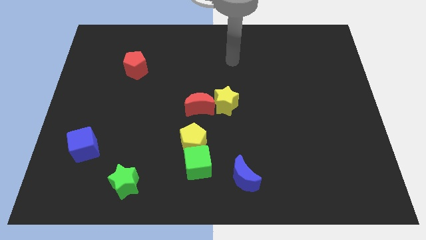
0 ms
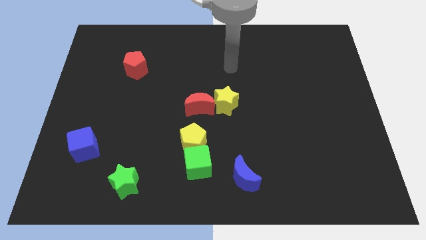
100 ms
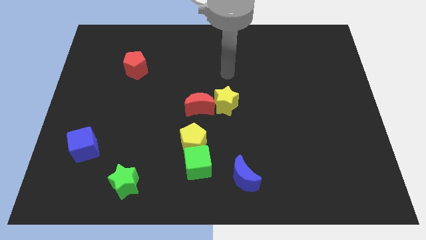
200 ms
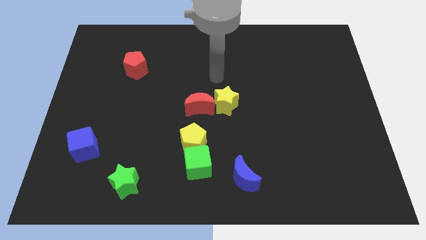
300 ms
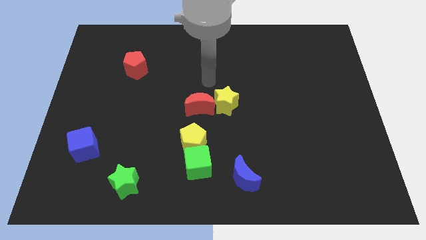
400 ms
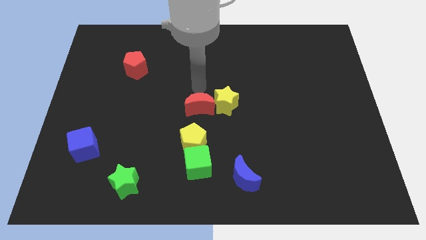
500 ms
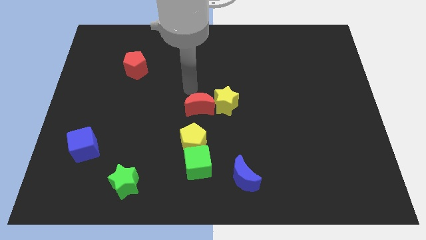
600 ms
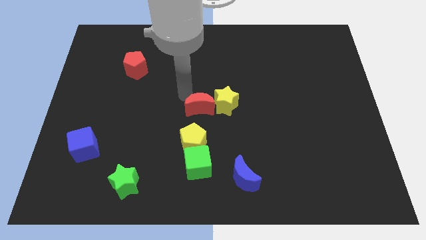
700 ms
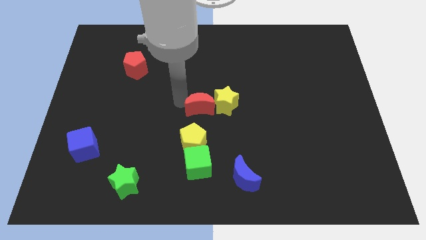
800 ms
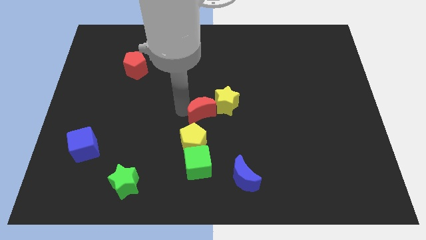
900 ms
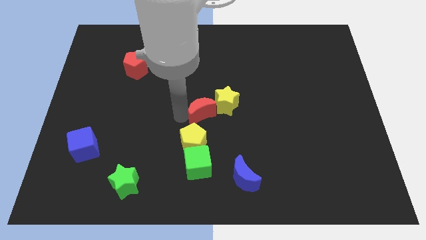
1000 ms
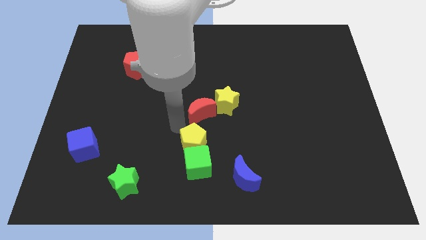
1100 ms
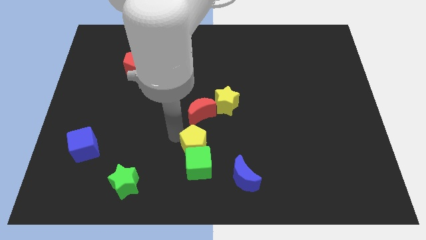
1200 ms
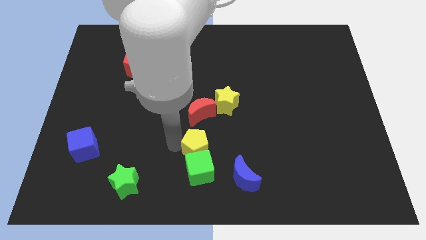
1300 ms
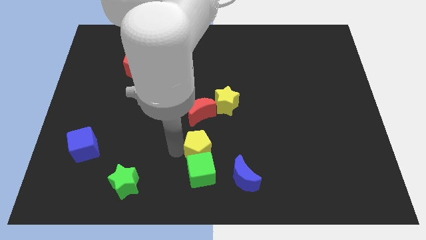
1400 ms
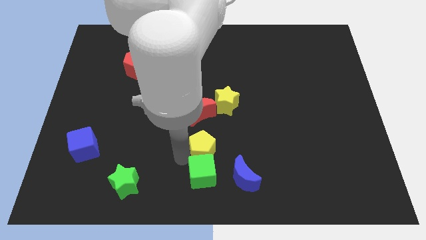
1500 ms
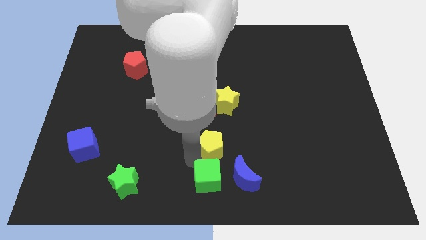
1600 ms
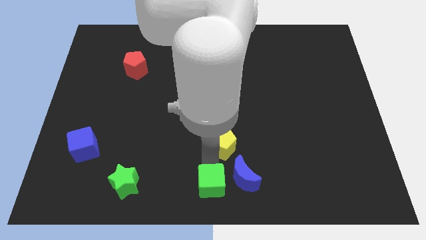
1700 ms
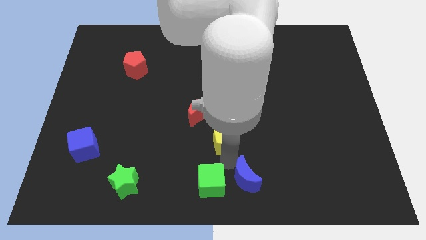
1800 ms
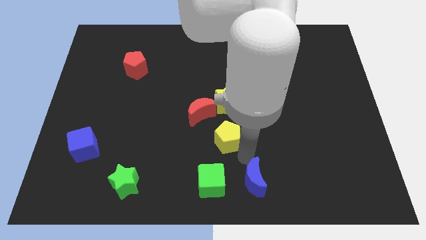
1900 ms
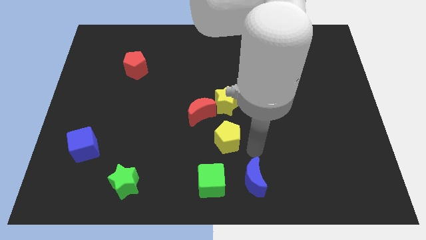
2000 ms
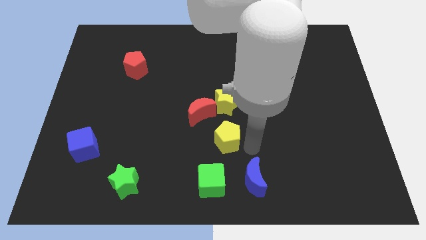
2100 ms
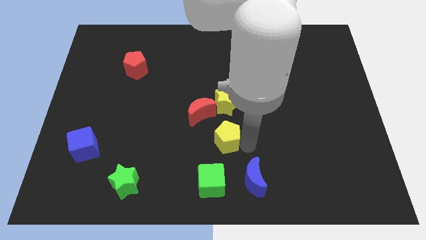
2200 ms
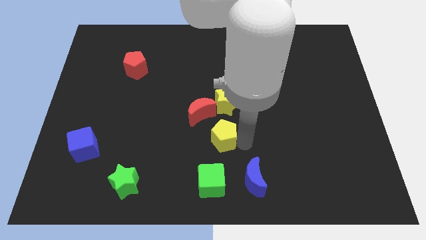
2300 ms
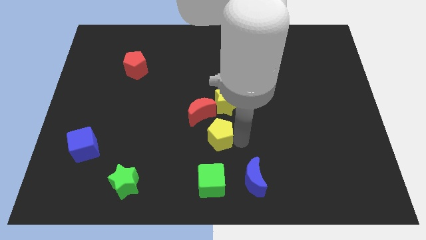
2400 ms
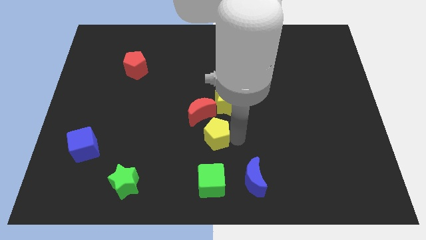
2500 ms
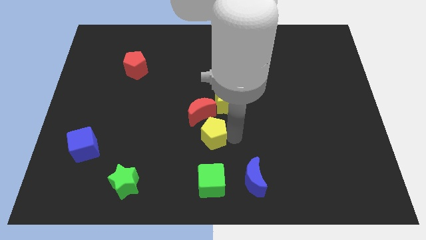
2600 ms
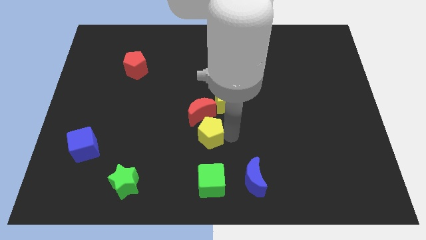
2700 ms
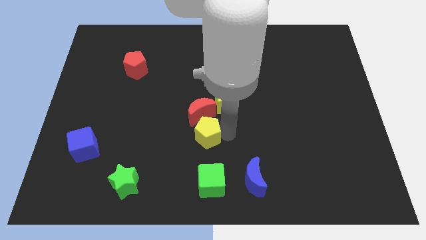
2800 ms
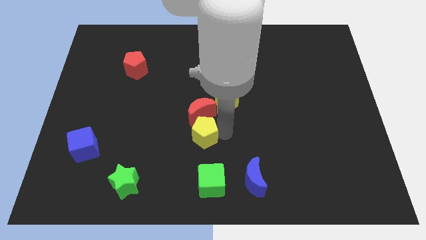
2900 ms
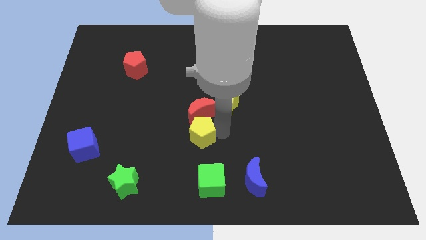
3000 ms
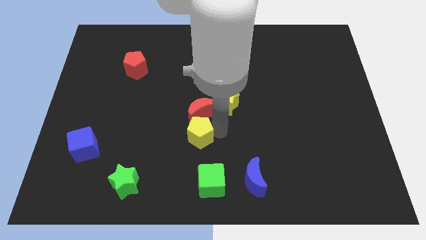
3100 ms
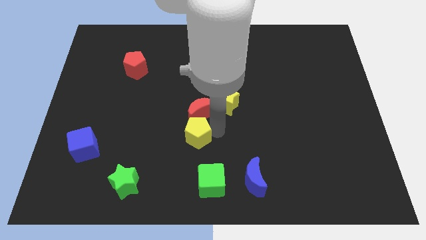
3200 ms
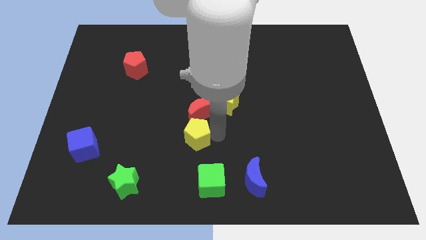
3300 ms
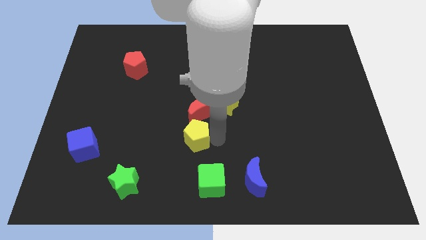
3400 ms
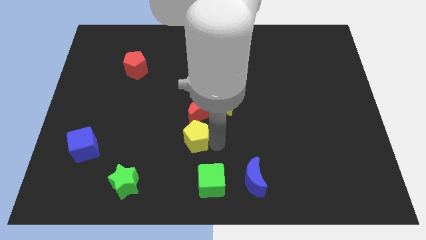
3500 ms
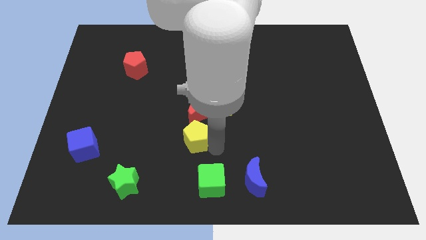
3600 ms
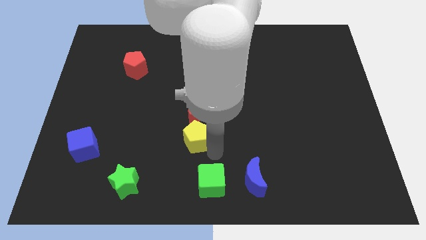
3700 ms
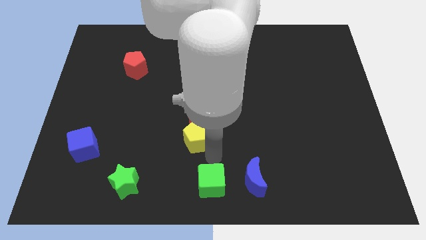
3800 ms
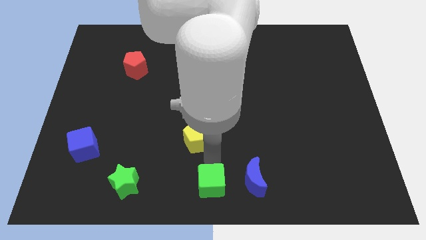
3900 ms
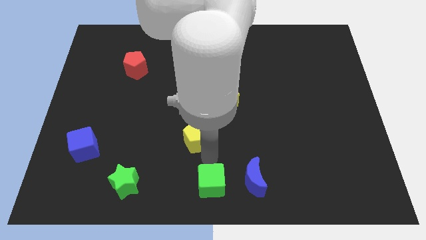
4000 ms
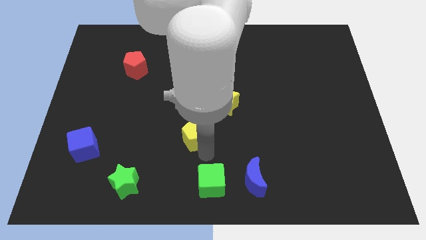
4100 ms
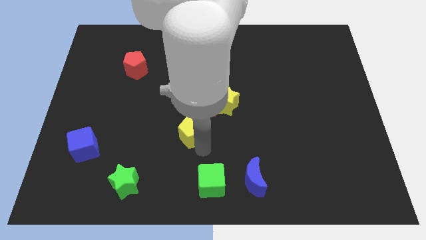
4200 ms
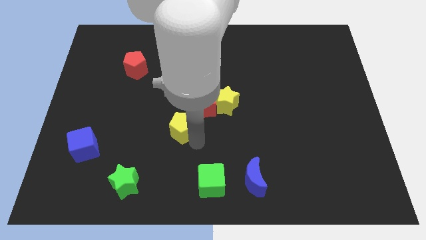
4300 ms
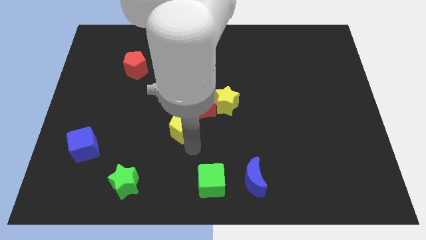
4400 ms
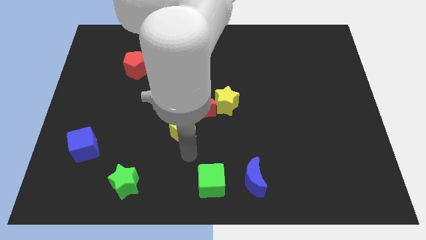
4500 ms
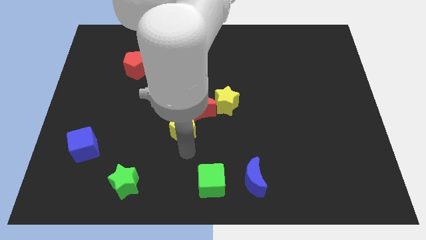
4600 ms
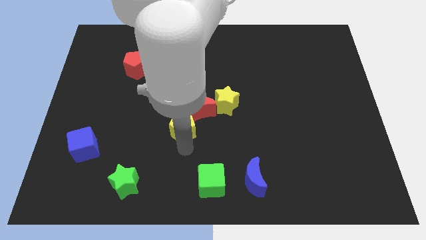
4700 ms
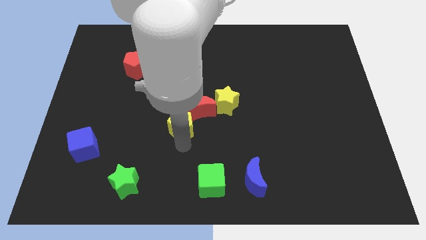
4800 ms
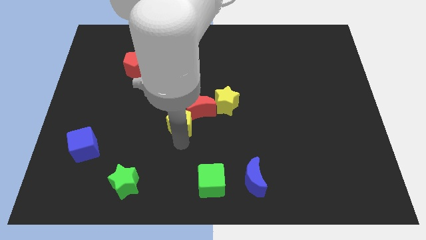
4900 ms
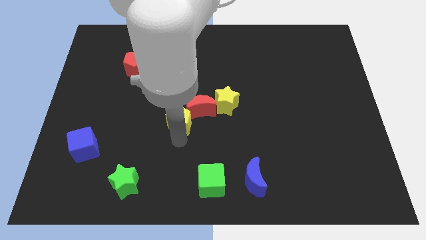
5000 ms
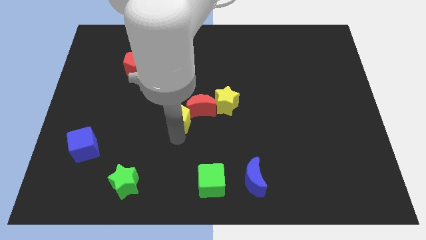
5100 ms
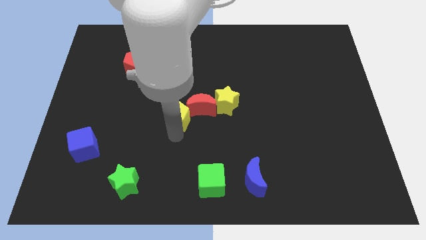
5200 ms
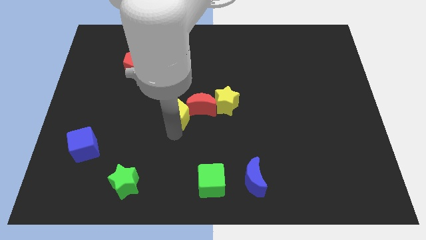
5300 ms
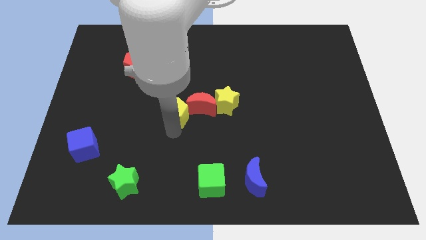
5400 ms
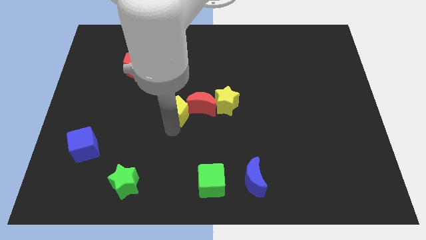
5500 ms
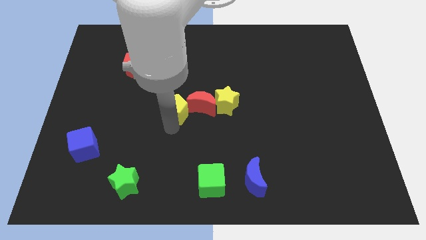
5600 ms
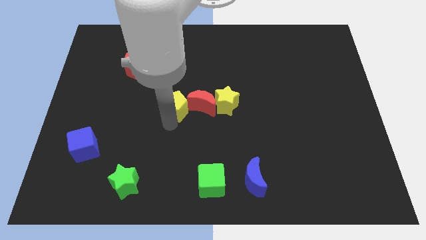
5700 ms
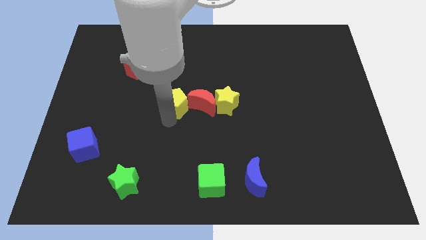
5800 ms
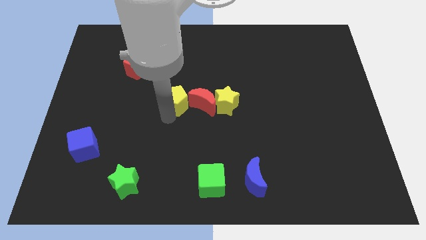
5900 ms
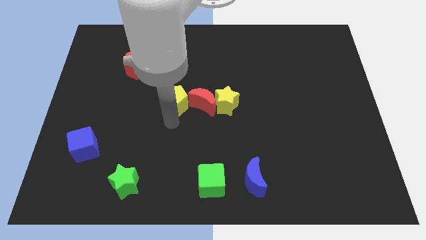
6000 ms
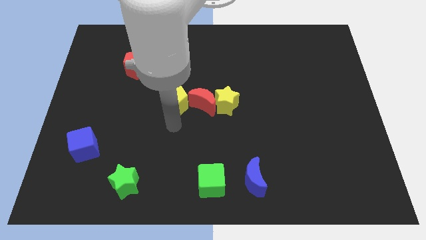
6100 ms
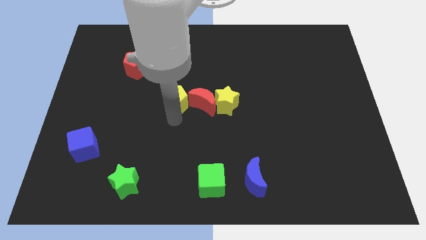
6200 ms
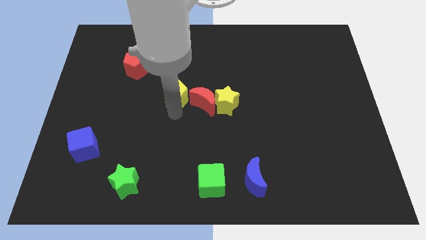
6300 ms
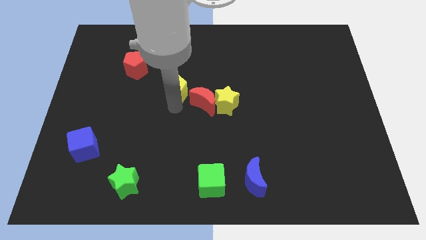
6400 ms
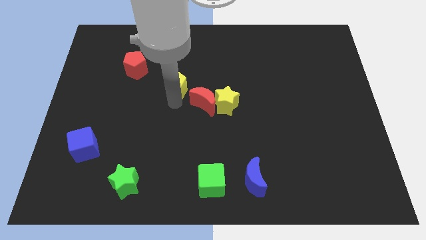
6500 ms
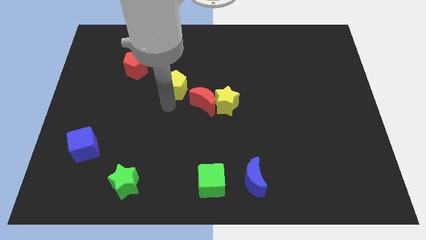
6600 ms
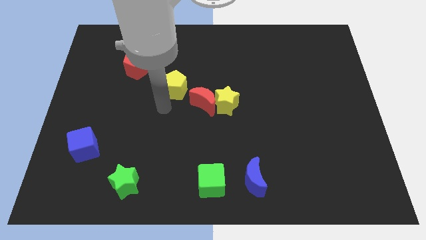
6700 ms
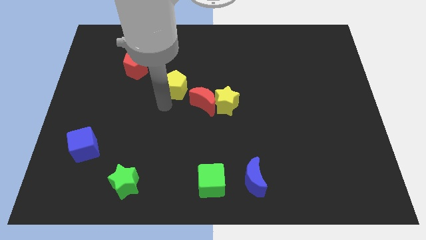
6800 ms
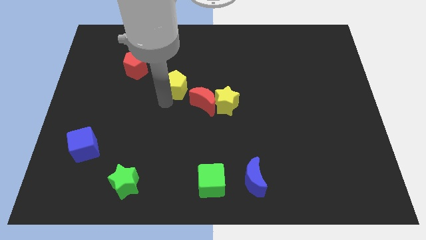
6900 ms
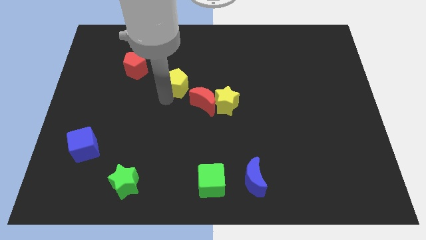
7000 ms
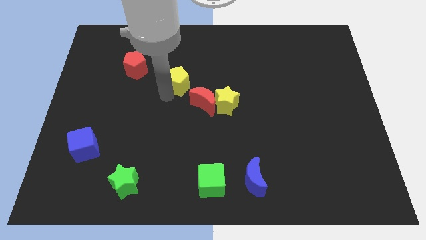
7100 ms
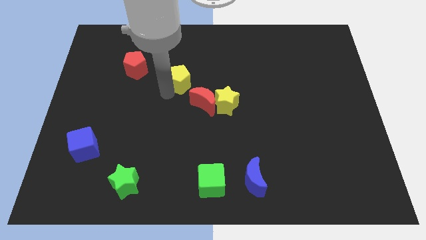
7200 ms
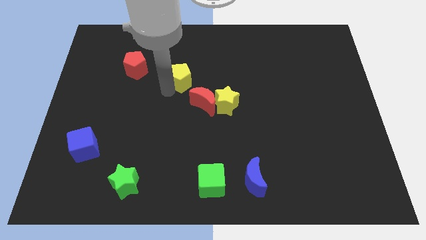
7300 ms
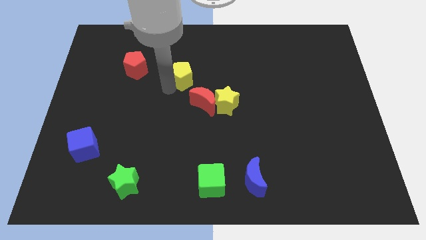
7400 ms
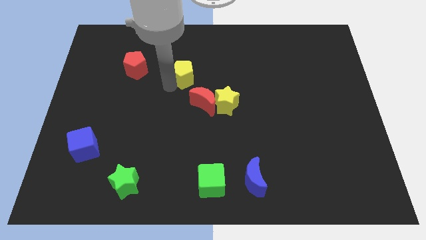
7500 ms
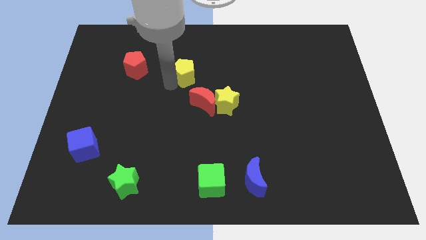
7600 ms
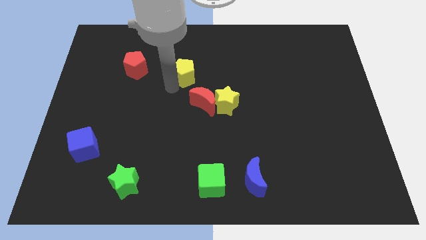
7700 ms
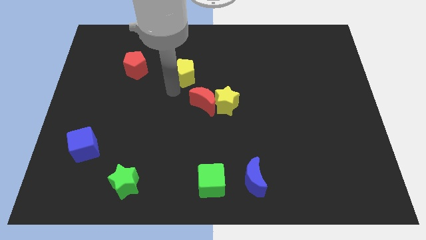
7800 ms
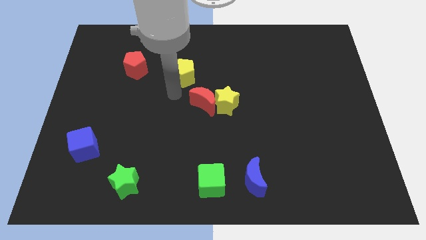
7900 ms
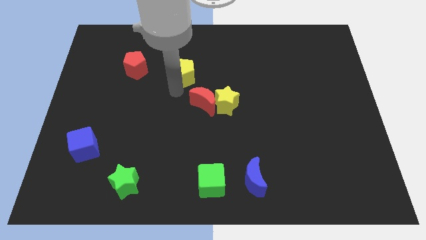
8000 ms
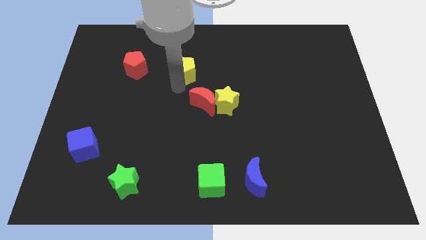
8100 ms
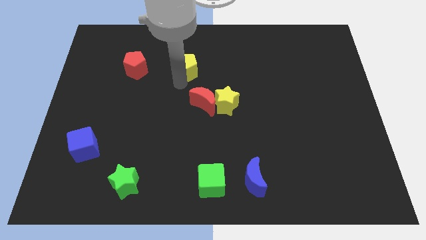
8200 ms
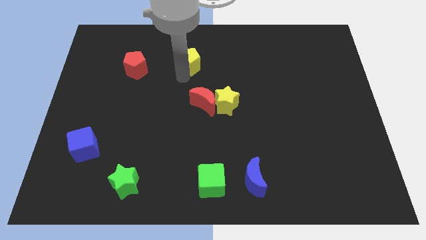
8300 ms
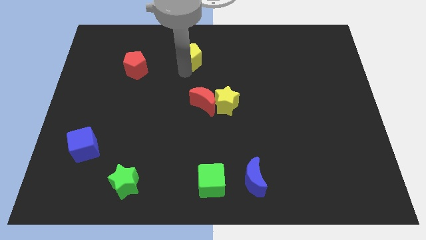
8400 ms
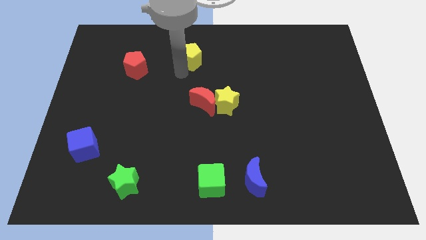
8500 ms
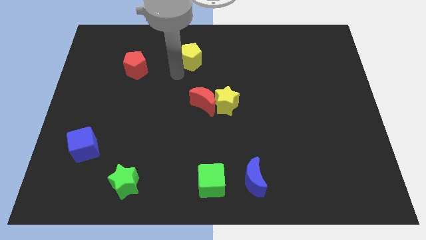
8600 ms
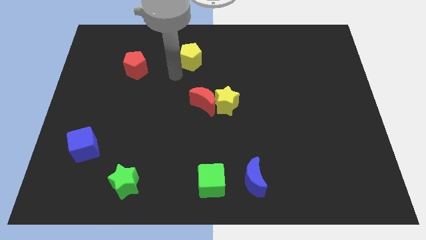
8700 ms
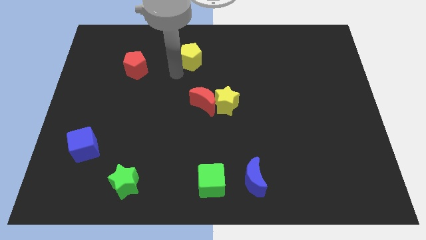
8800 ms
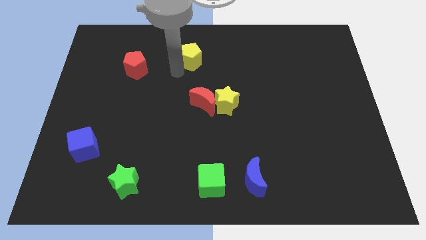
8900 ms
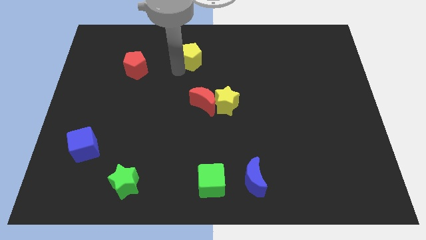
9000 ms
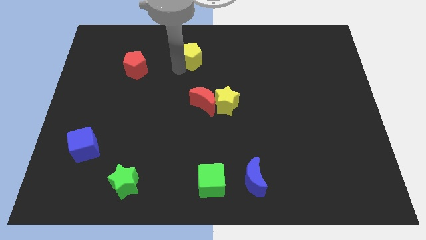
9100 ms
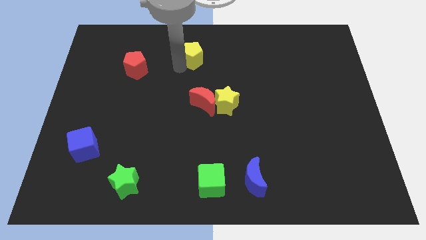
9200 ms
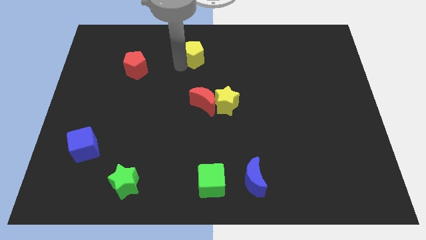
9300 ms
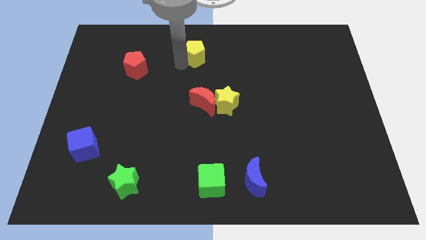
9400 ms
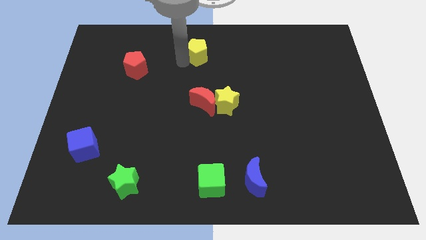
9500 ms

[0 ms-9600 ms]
move the yellow pentagon to the top side
